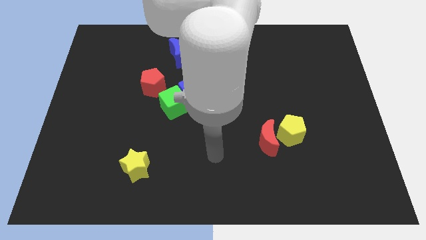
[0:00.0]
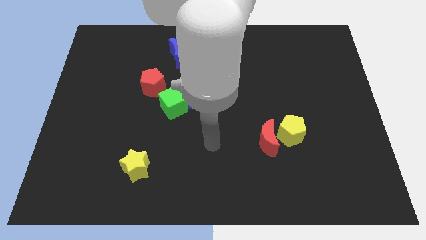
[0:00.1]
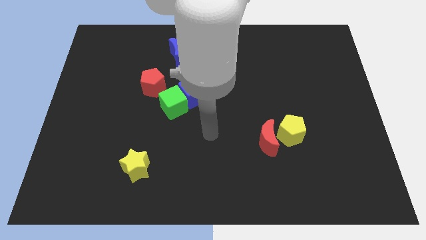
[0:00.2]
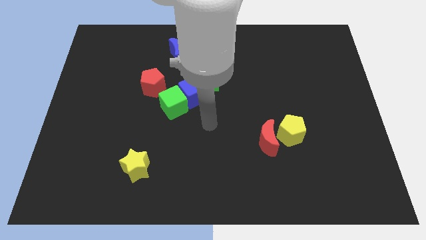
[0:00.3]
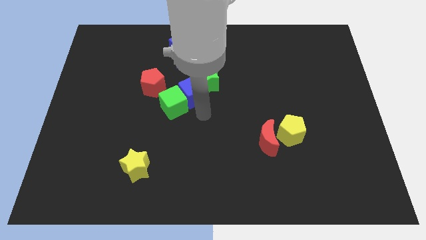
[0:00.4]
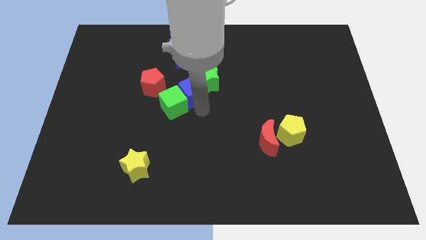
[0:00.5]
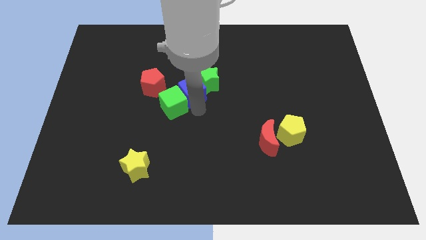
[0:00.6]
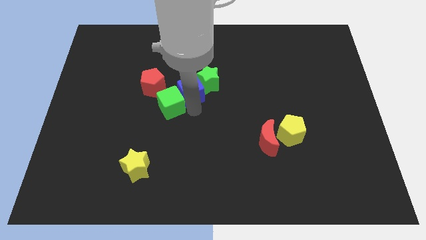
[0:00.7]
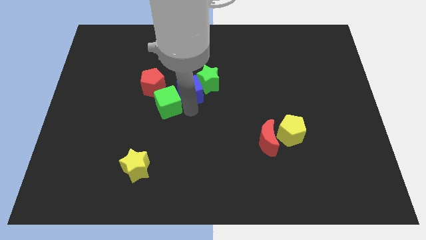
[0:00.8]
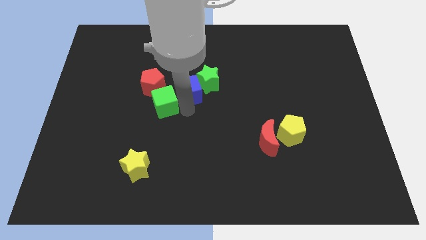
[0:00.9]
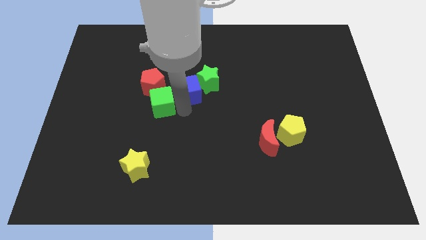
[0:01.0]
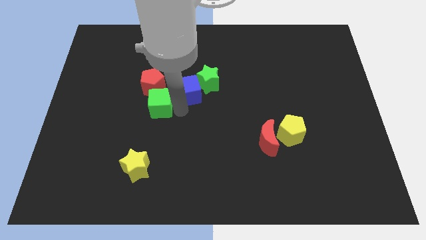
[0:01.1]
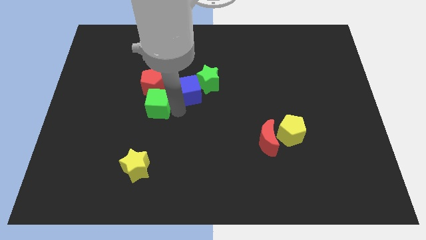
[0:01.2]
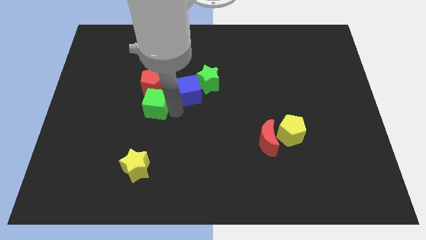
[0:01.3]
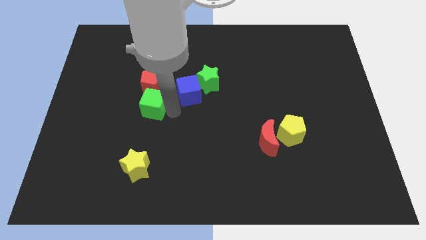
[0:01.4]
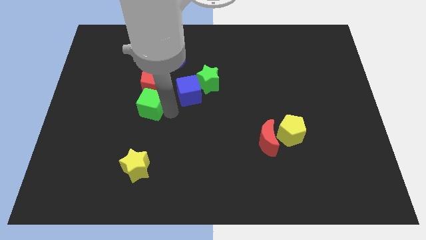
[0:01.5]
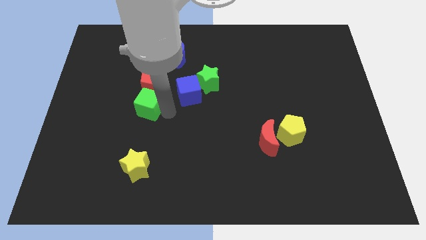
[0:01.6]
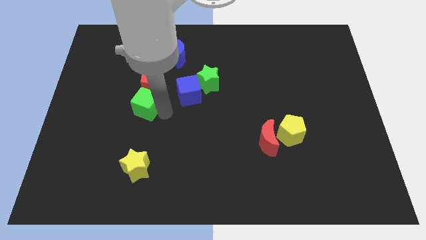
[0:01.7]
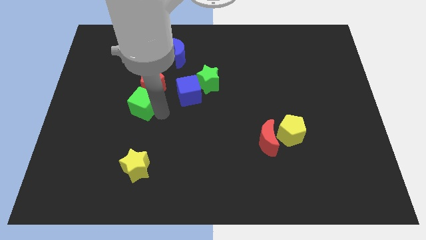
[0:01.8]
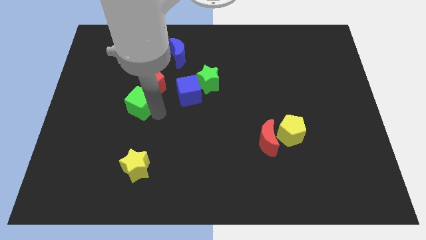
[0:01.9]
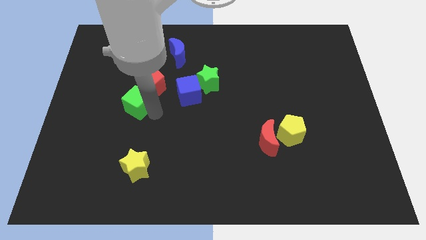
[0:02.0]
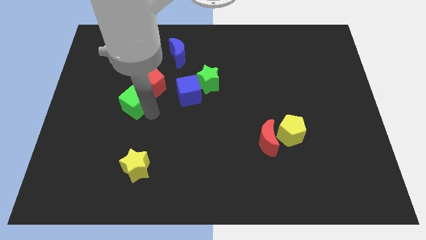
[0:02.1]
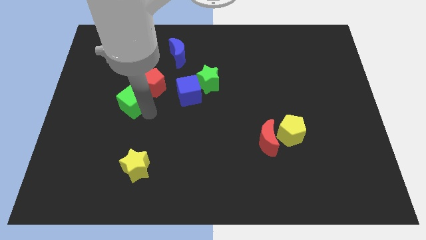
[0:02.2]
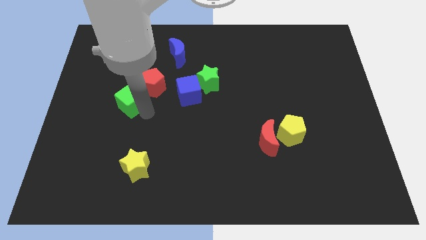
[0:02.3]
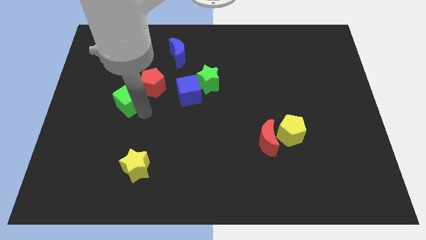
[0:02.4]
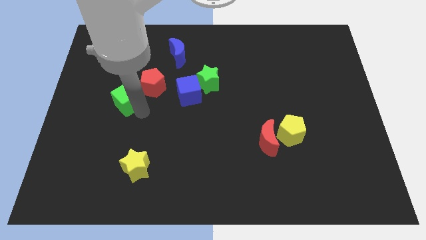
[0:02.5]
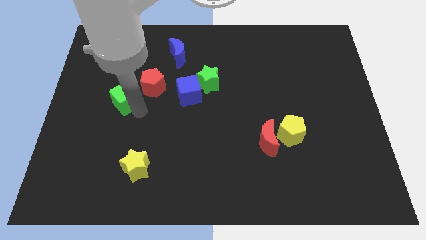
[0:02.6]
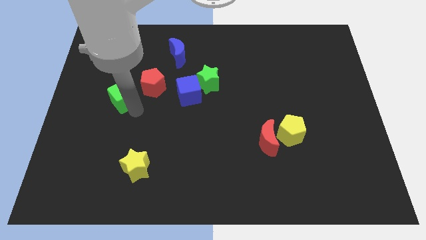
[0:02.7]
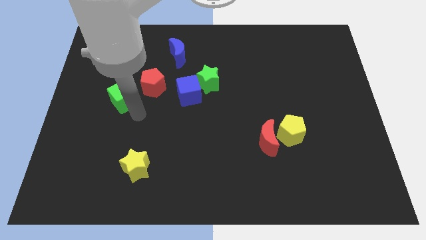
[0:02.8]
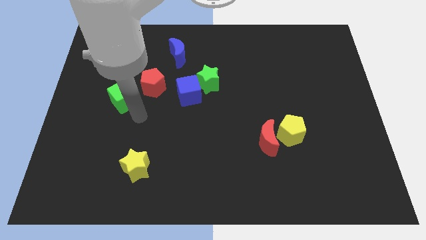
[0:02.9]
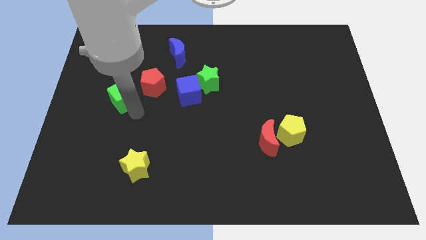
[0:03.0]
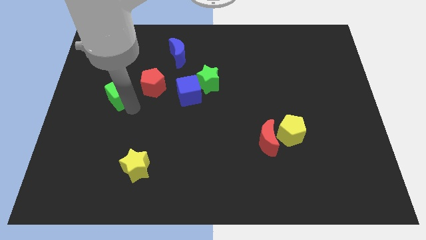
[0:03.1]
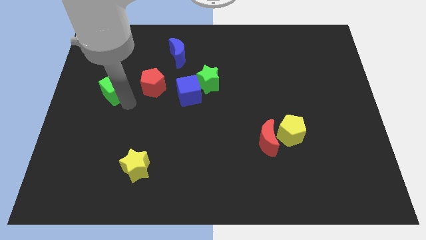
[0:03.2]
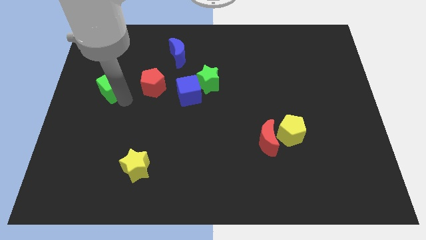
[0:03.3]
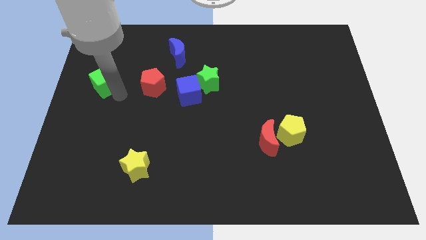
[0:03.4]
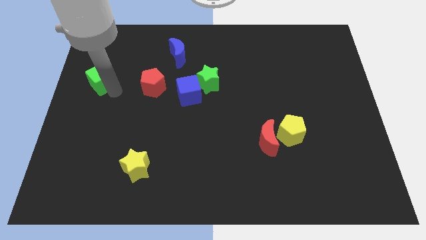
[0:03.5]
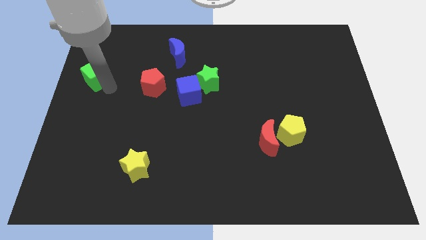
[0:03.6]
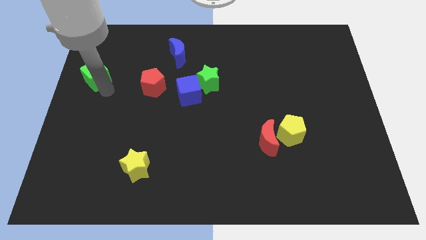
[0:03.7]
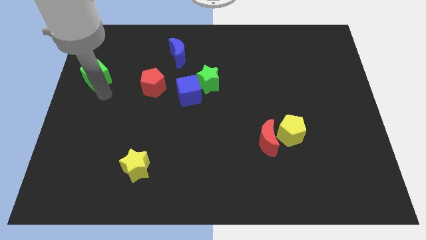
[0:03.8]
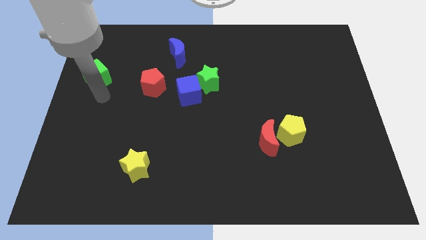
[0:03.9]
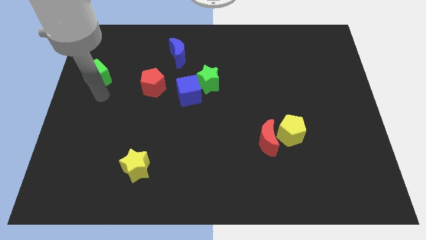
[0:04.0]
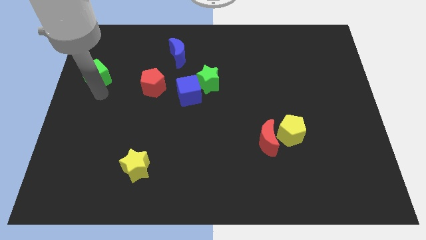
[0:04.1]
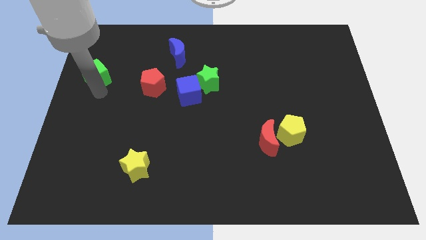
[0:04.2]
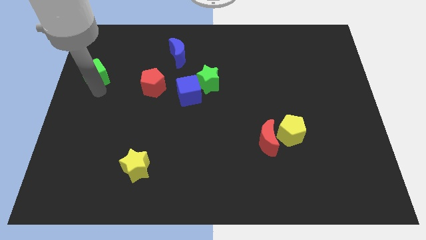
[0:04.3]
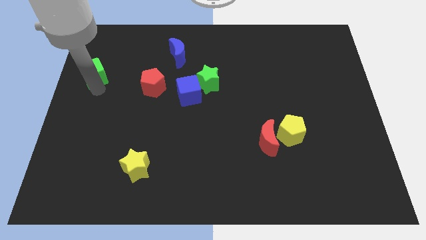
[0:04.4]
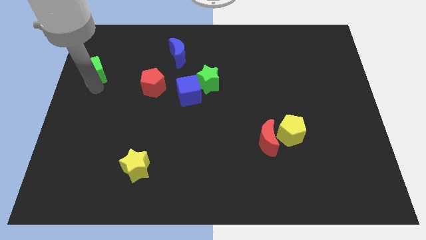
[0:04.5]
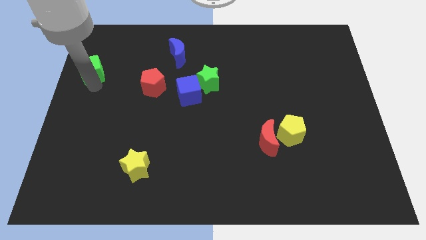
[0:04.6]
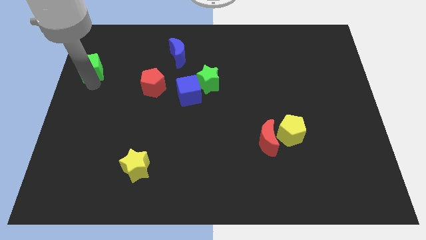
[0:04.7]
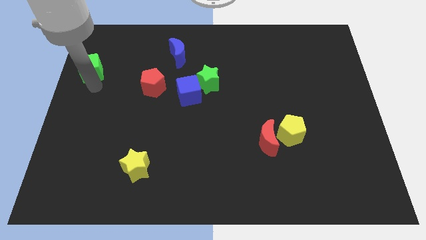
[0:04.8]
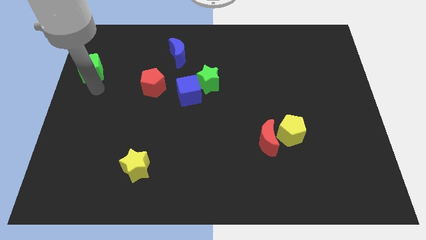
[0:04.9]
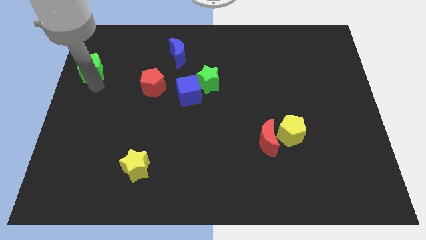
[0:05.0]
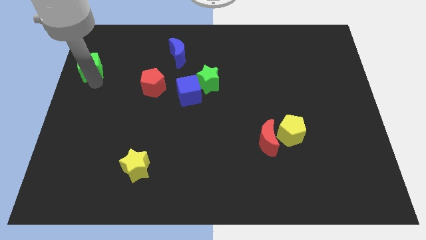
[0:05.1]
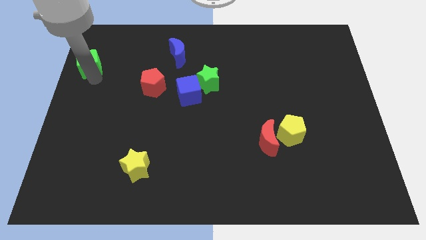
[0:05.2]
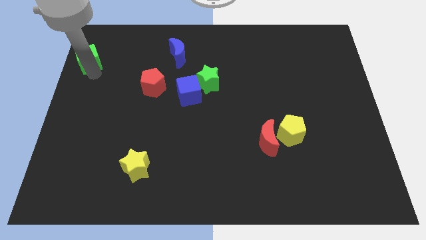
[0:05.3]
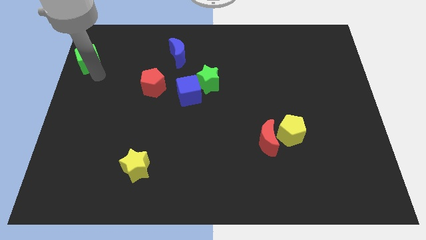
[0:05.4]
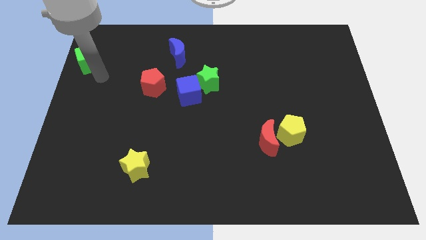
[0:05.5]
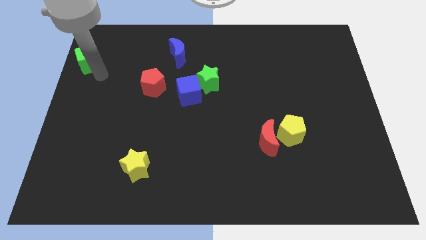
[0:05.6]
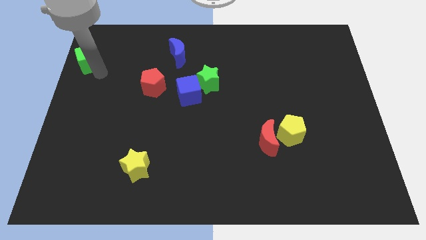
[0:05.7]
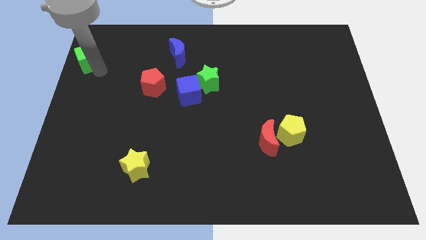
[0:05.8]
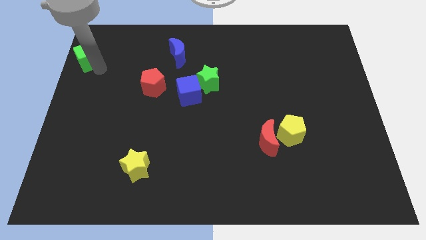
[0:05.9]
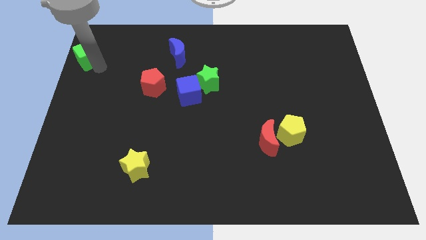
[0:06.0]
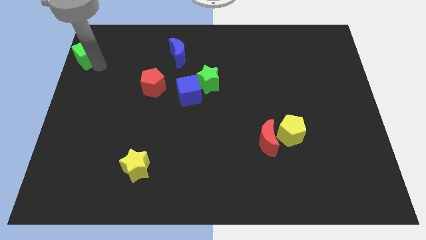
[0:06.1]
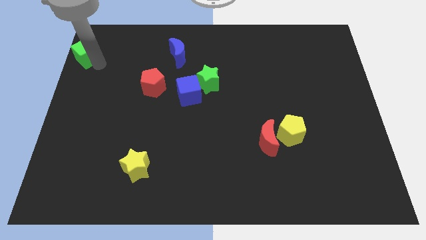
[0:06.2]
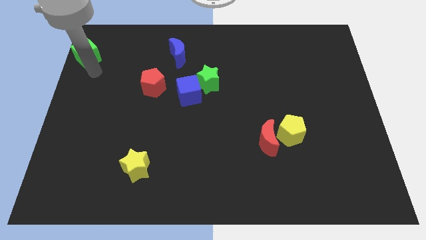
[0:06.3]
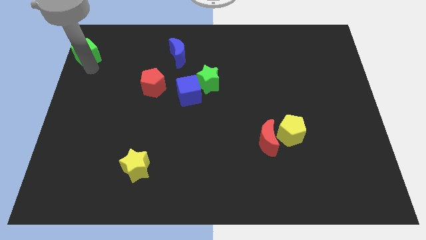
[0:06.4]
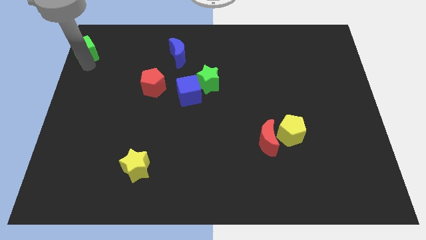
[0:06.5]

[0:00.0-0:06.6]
push the green cube to the top left of the board

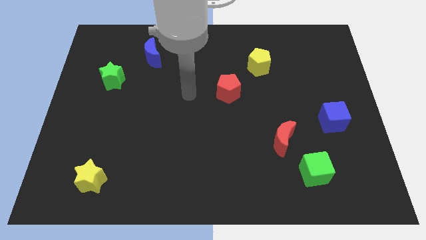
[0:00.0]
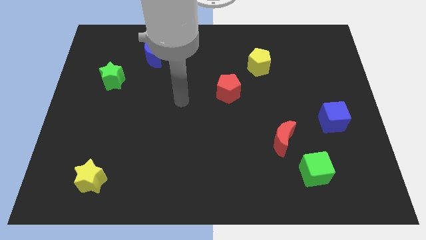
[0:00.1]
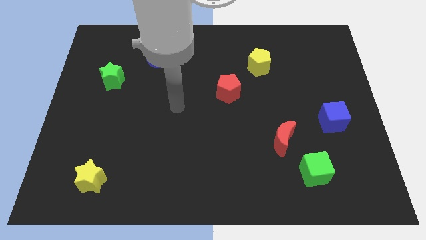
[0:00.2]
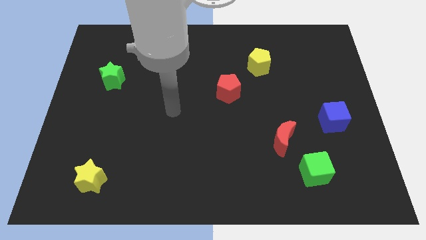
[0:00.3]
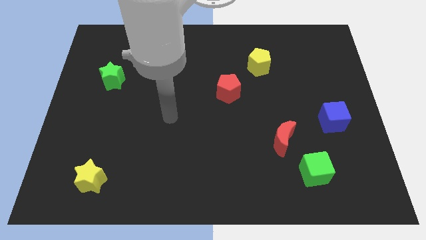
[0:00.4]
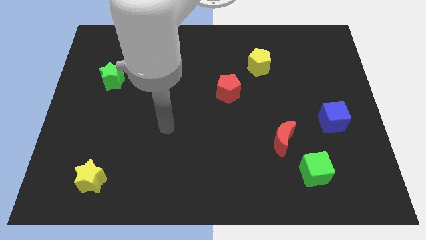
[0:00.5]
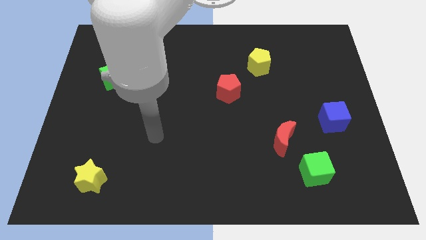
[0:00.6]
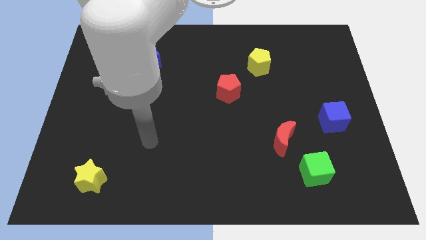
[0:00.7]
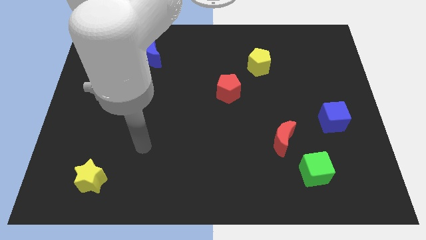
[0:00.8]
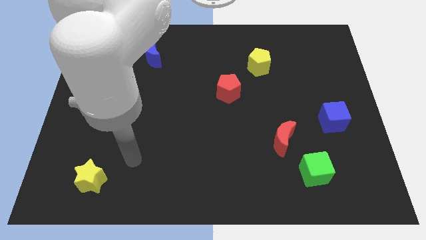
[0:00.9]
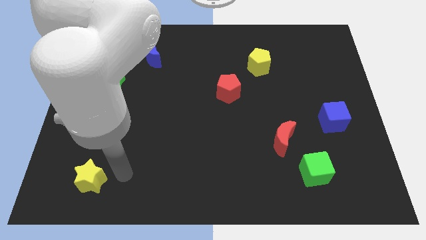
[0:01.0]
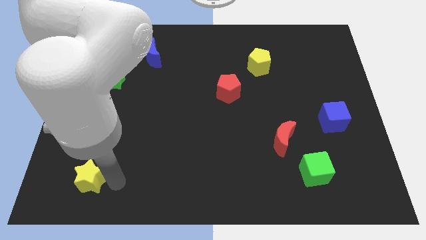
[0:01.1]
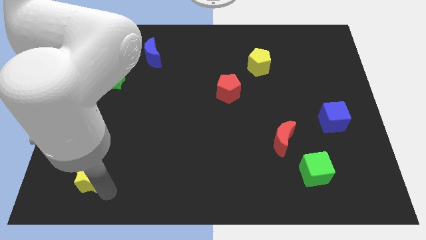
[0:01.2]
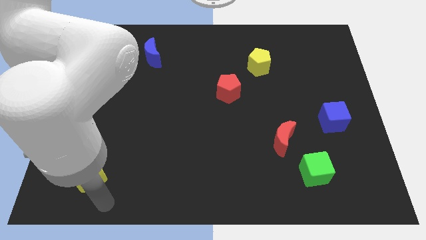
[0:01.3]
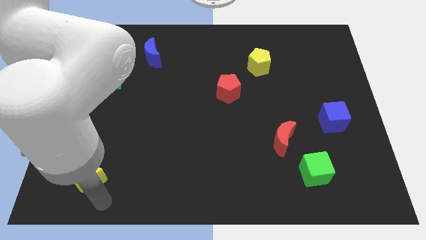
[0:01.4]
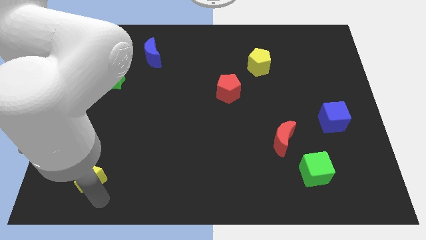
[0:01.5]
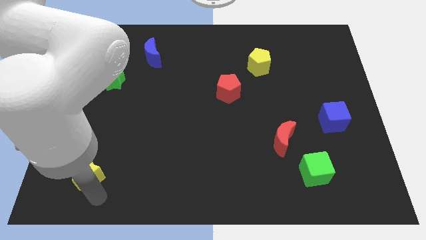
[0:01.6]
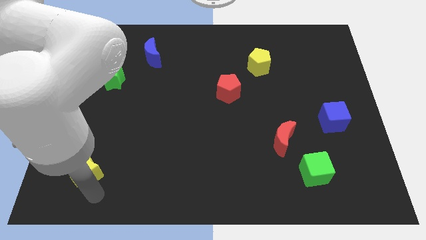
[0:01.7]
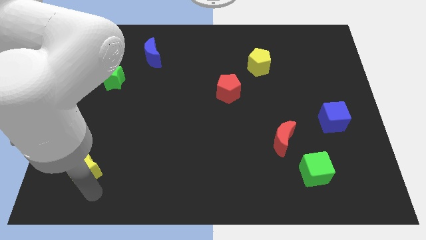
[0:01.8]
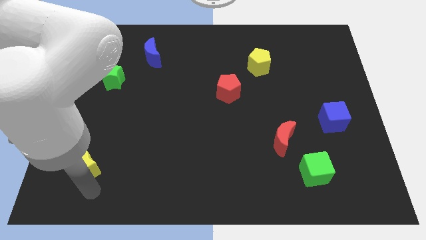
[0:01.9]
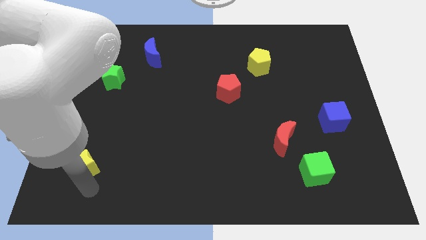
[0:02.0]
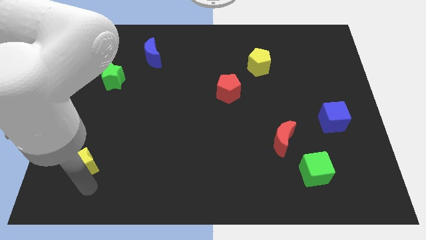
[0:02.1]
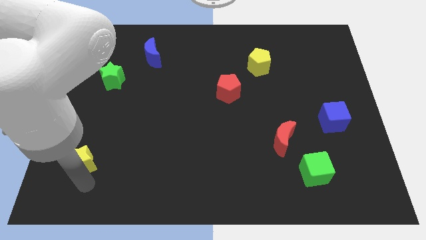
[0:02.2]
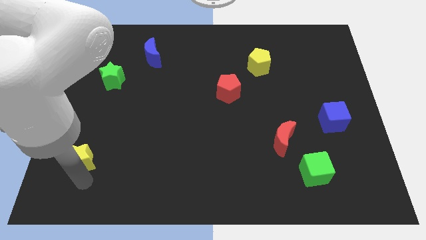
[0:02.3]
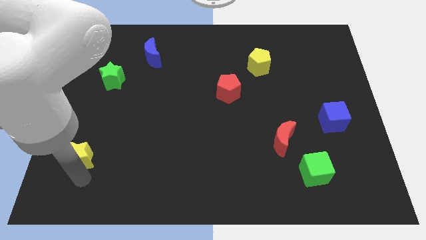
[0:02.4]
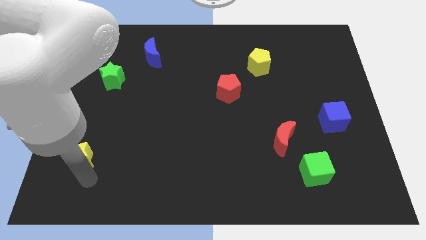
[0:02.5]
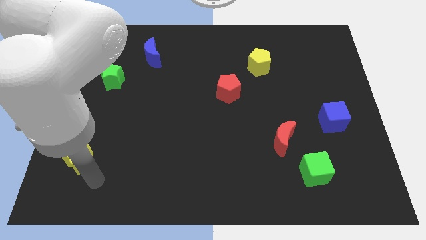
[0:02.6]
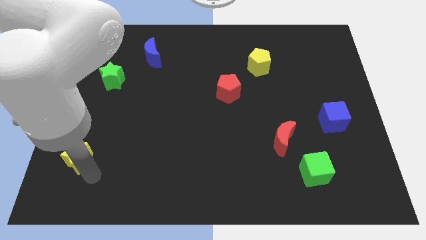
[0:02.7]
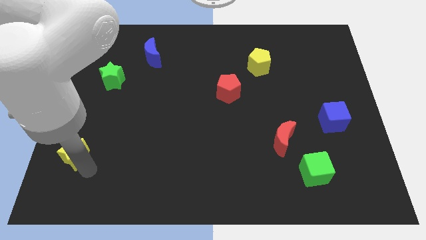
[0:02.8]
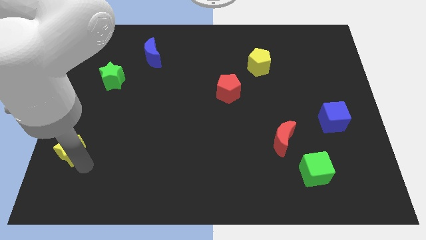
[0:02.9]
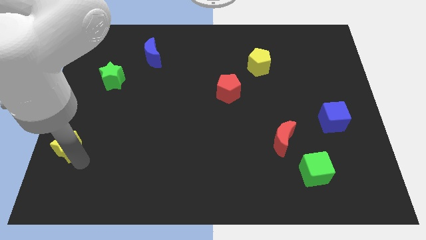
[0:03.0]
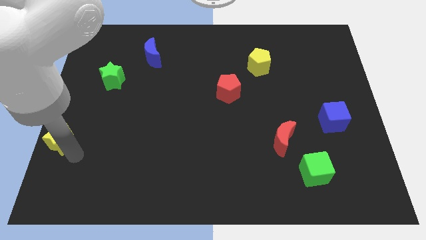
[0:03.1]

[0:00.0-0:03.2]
slide the yellow star to the center left
